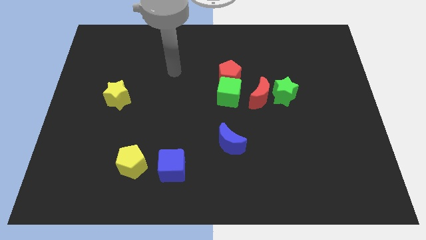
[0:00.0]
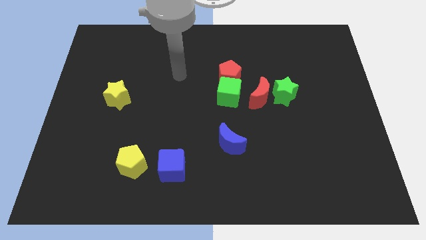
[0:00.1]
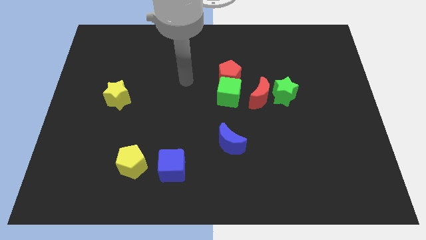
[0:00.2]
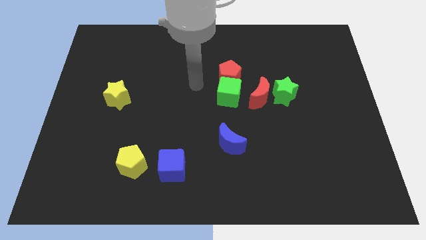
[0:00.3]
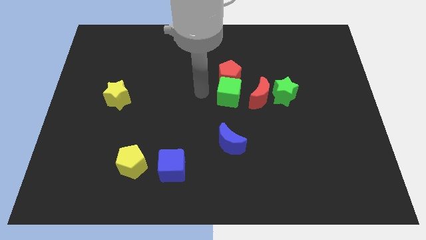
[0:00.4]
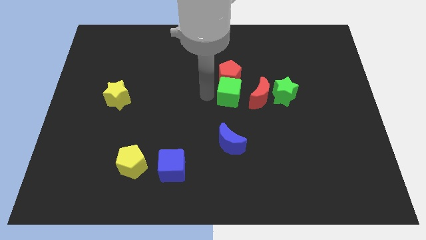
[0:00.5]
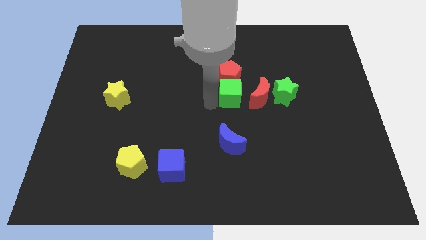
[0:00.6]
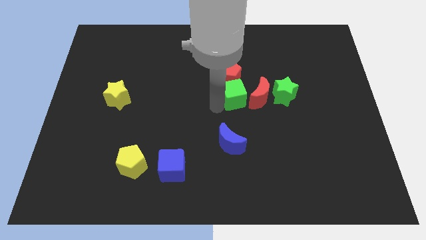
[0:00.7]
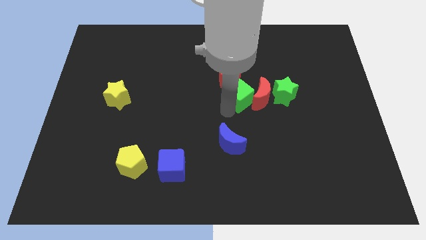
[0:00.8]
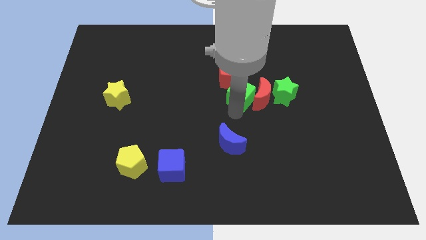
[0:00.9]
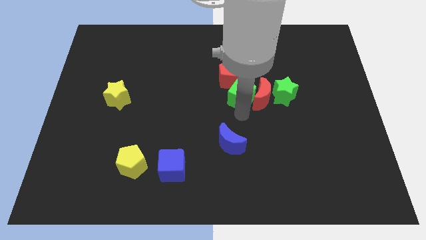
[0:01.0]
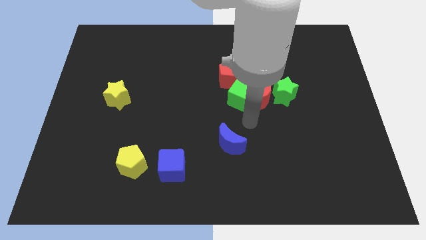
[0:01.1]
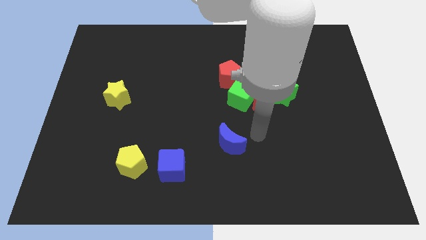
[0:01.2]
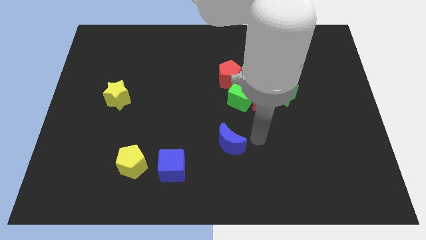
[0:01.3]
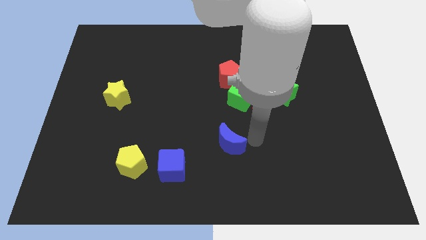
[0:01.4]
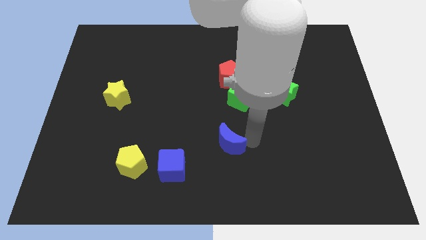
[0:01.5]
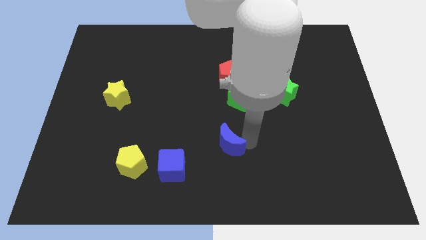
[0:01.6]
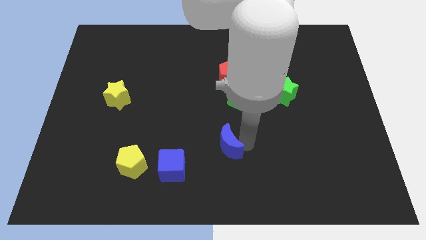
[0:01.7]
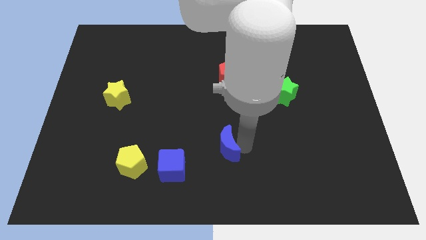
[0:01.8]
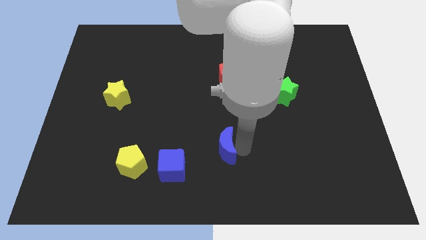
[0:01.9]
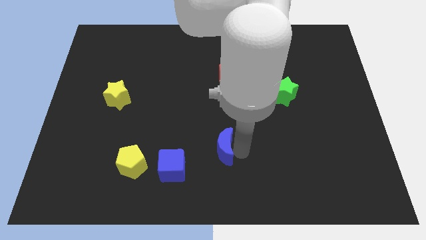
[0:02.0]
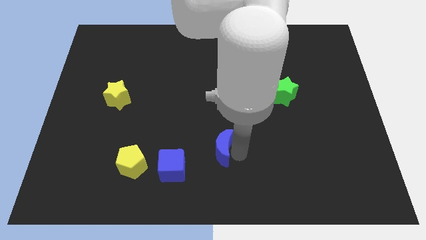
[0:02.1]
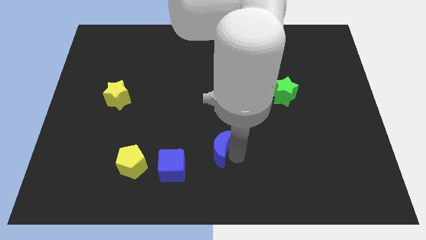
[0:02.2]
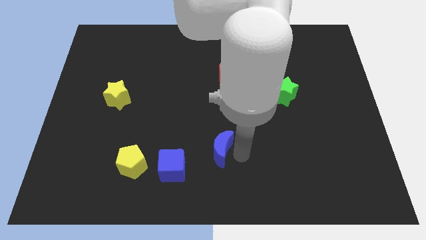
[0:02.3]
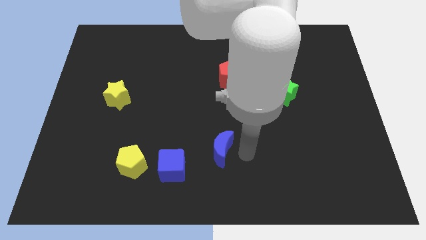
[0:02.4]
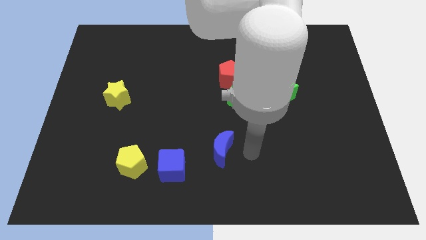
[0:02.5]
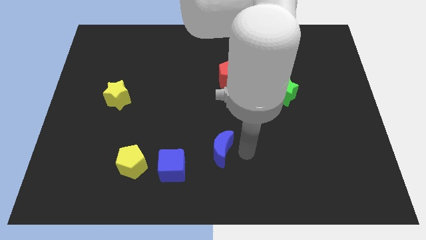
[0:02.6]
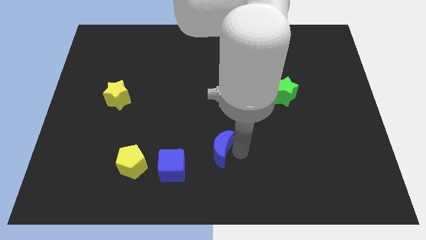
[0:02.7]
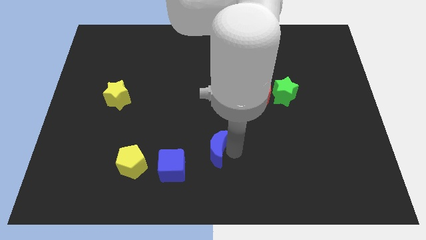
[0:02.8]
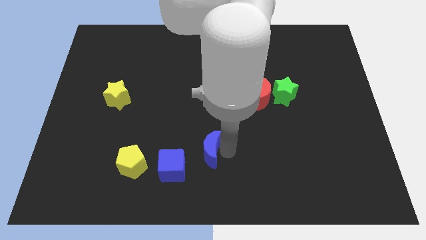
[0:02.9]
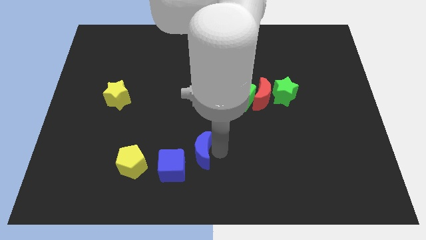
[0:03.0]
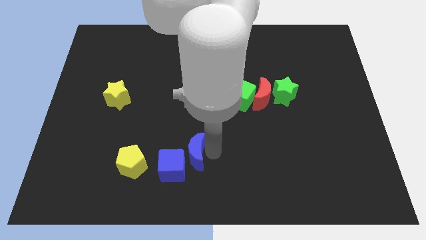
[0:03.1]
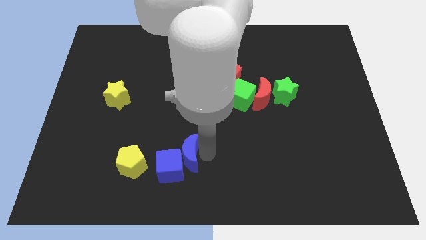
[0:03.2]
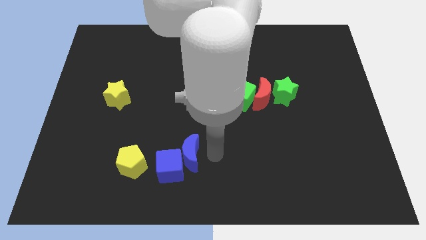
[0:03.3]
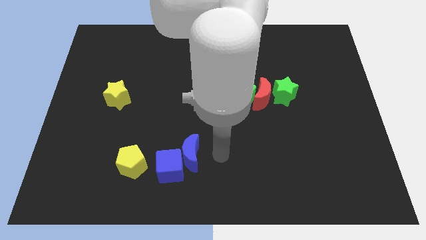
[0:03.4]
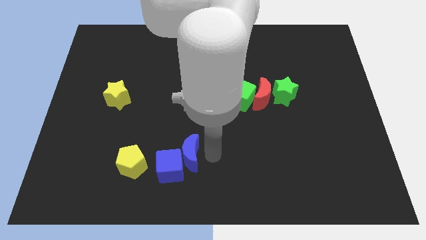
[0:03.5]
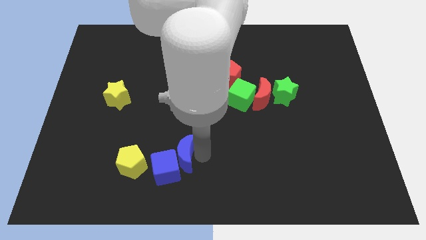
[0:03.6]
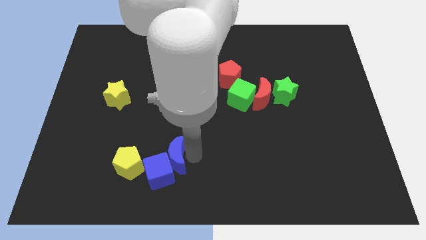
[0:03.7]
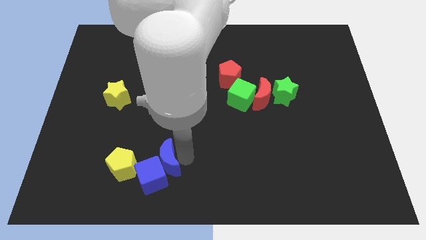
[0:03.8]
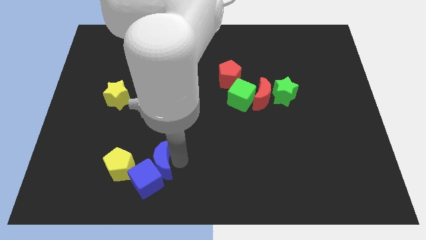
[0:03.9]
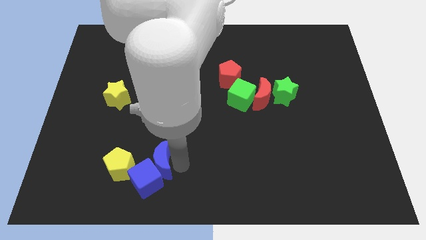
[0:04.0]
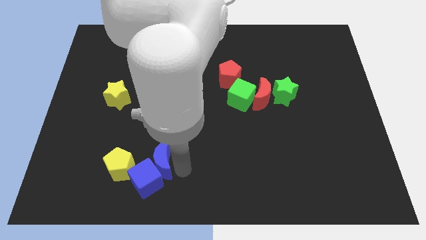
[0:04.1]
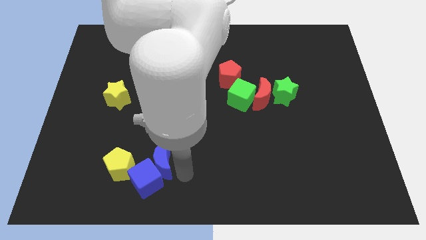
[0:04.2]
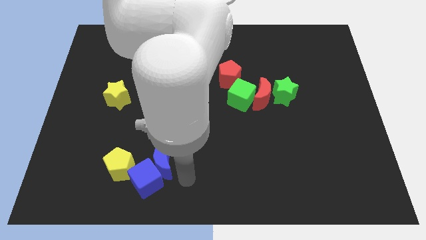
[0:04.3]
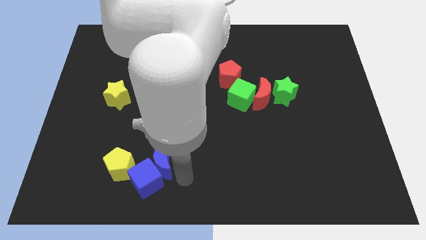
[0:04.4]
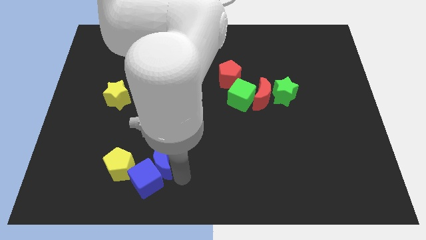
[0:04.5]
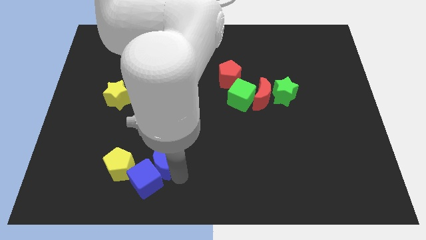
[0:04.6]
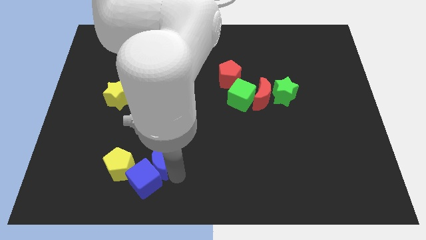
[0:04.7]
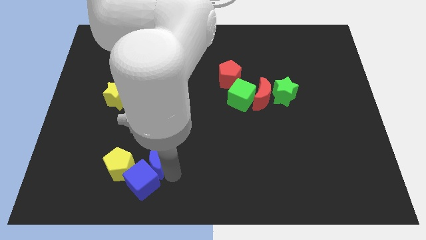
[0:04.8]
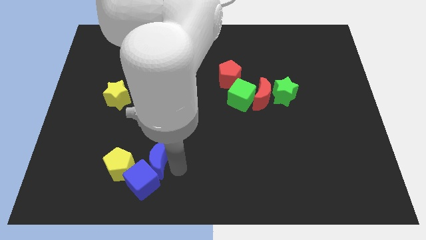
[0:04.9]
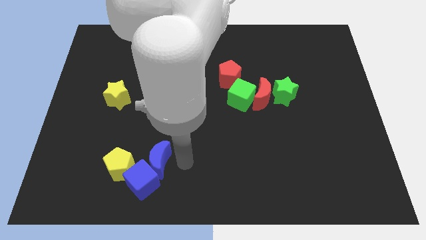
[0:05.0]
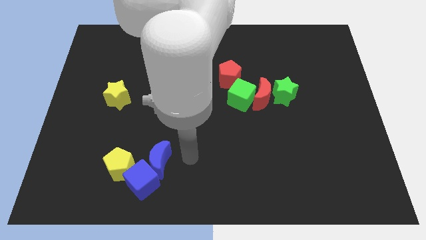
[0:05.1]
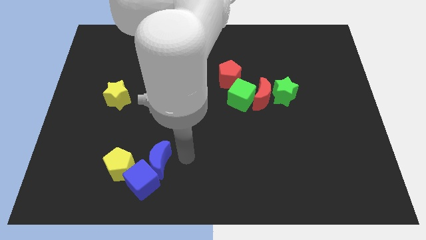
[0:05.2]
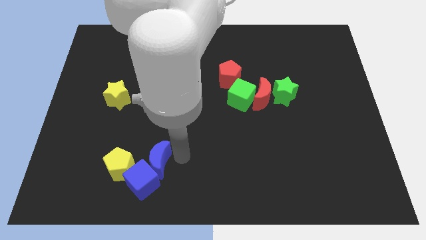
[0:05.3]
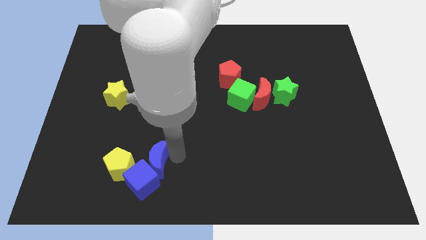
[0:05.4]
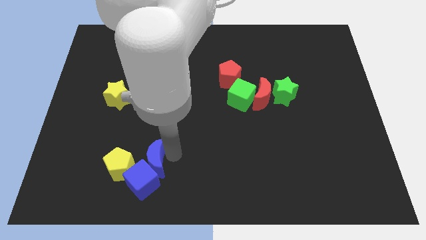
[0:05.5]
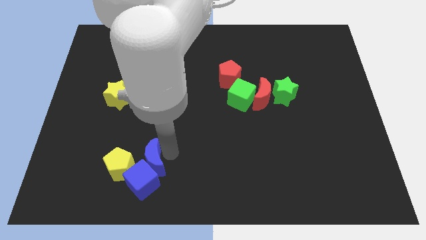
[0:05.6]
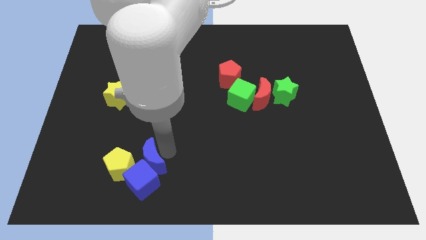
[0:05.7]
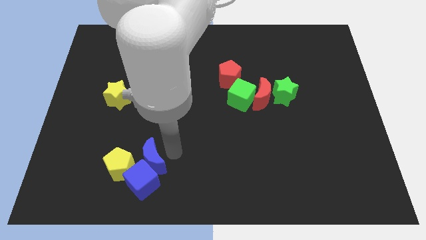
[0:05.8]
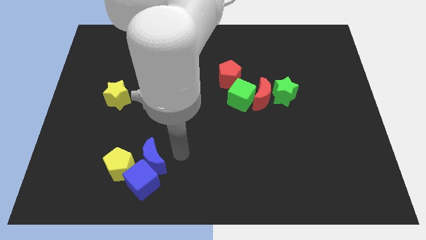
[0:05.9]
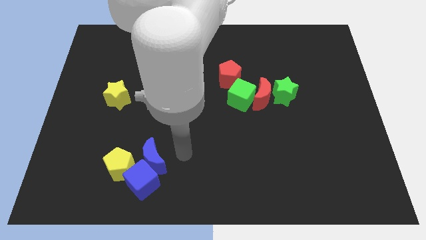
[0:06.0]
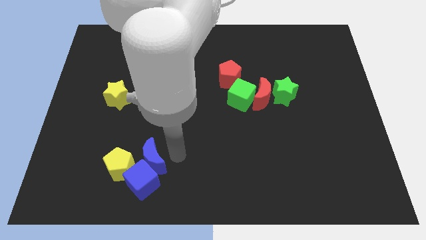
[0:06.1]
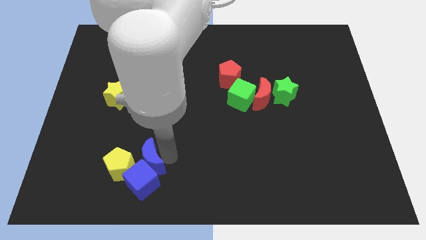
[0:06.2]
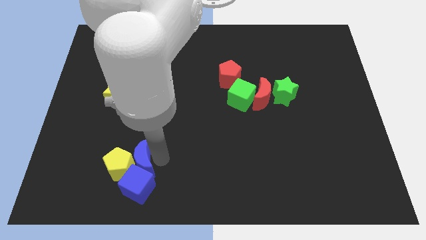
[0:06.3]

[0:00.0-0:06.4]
slide the blue moon next to the yellow pentagon

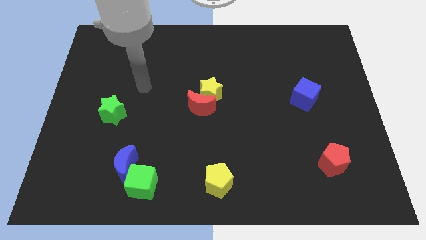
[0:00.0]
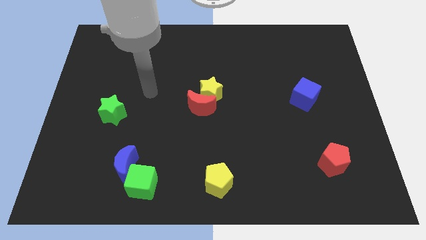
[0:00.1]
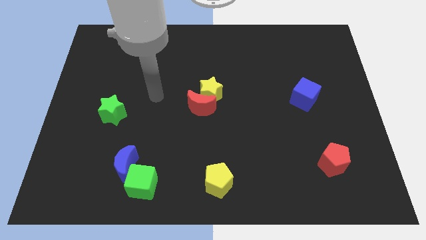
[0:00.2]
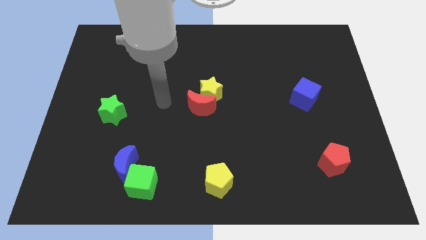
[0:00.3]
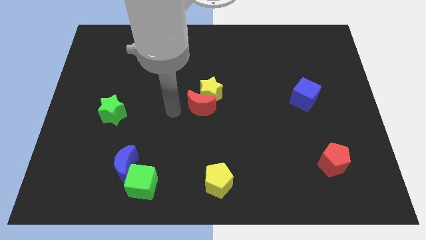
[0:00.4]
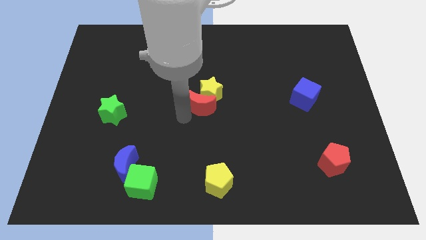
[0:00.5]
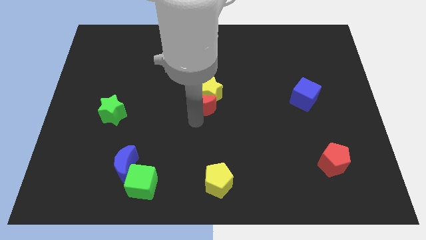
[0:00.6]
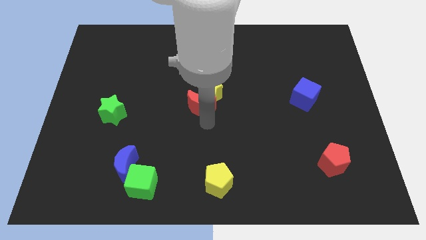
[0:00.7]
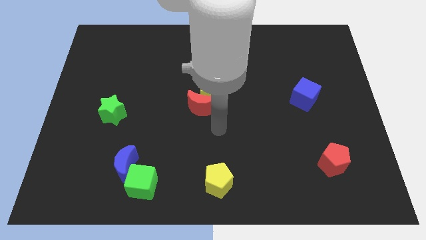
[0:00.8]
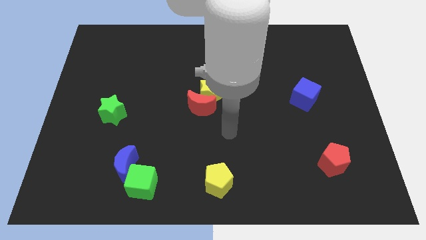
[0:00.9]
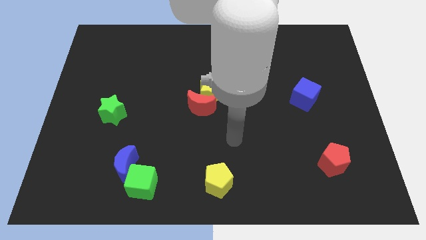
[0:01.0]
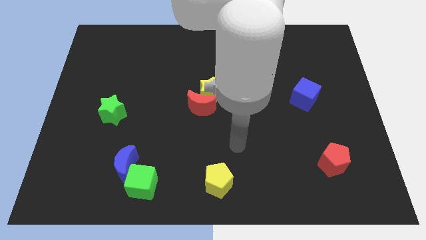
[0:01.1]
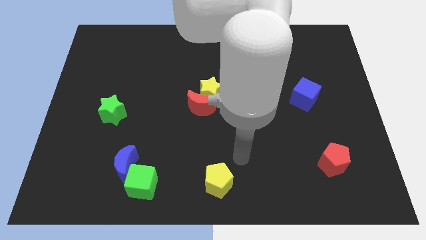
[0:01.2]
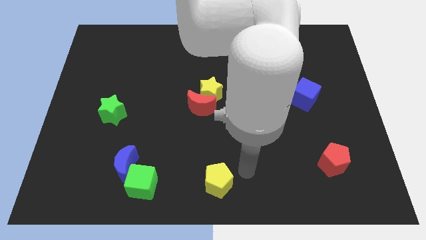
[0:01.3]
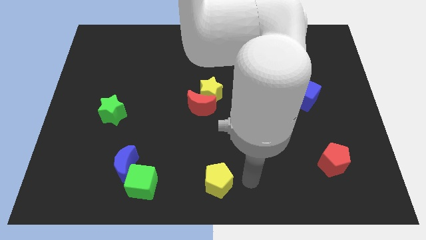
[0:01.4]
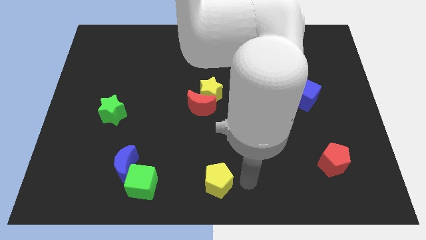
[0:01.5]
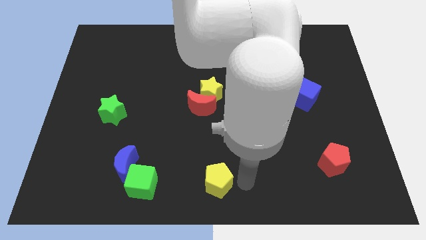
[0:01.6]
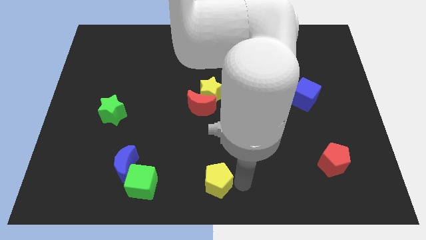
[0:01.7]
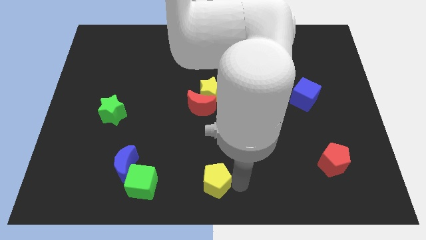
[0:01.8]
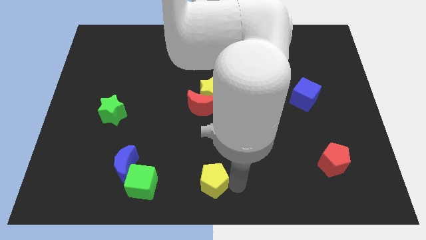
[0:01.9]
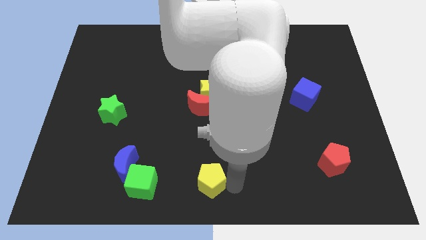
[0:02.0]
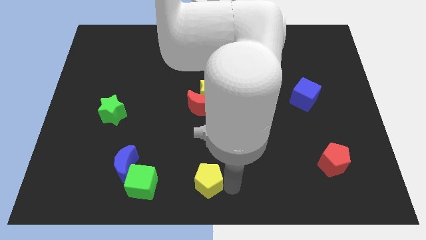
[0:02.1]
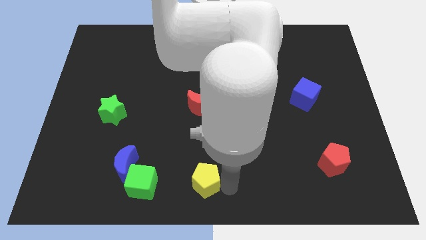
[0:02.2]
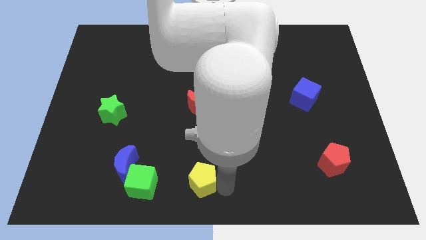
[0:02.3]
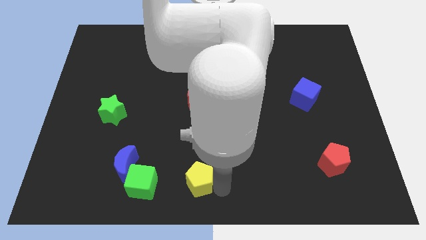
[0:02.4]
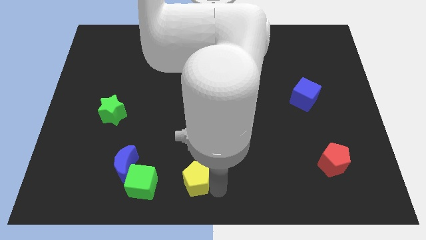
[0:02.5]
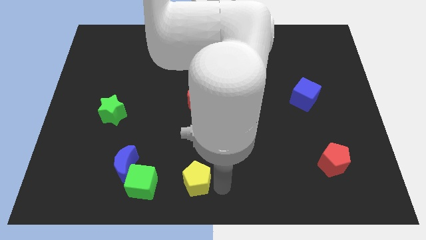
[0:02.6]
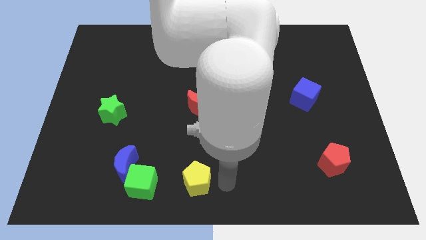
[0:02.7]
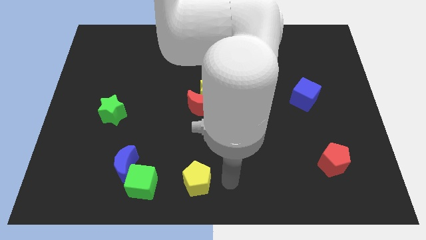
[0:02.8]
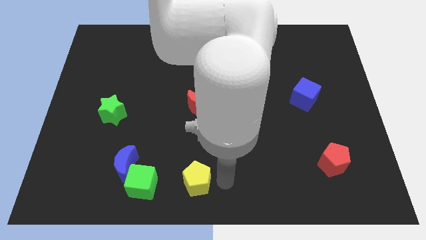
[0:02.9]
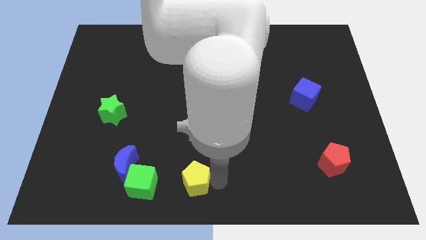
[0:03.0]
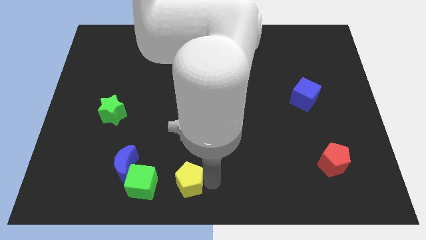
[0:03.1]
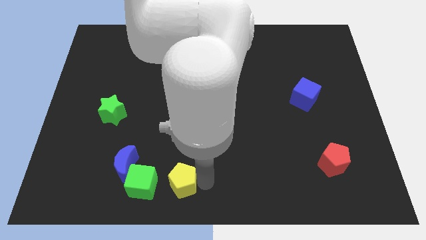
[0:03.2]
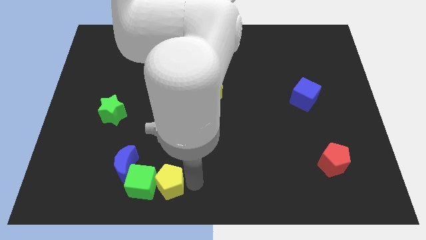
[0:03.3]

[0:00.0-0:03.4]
move the yellow pentagon close to the green cube
